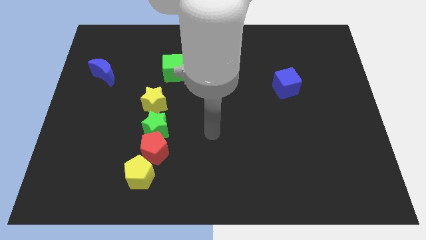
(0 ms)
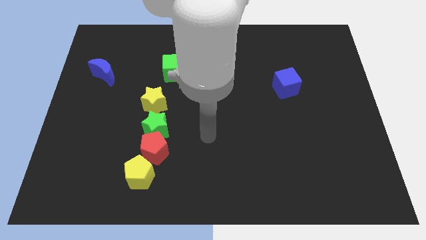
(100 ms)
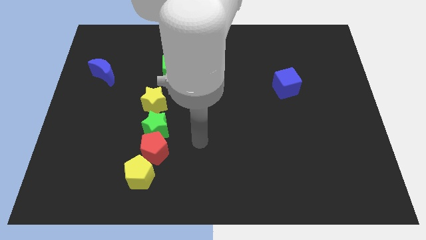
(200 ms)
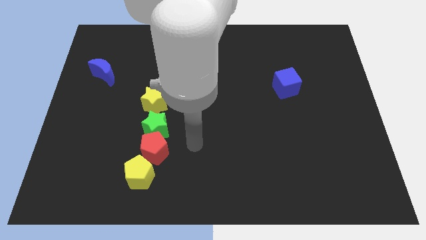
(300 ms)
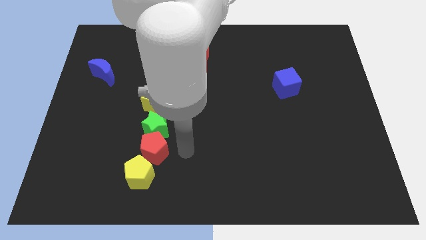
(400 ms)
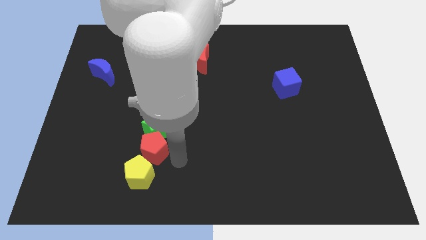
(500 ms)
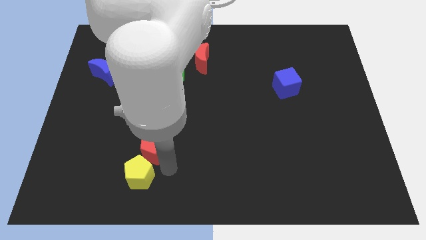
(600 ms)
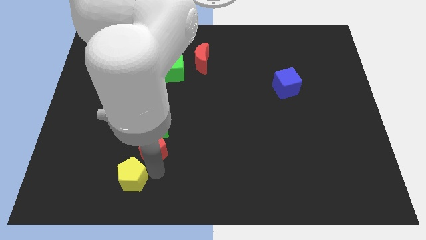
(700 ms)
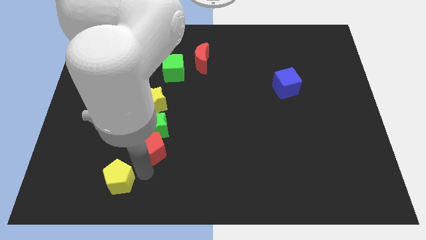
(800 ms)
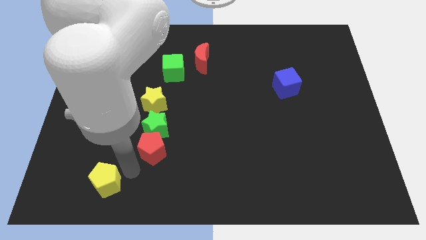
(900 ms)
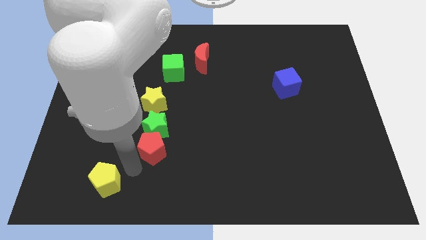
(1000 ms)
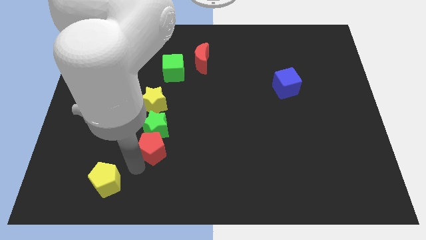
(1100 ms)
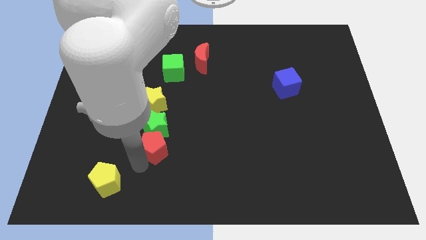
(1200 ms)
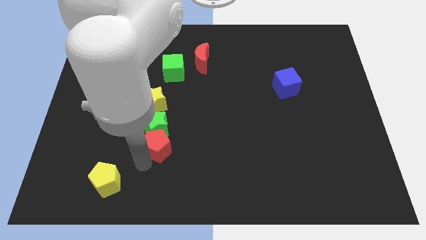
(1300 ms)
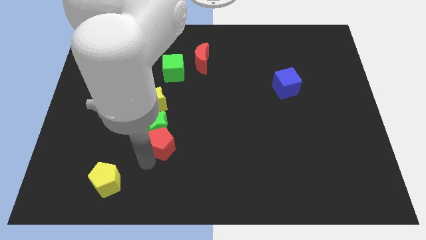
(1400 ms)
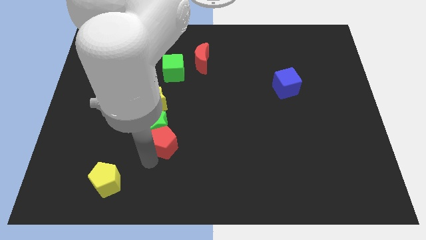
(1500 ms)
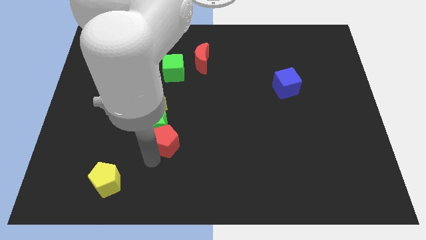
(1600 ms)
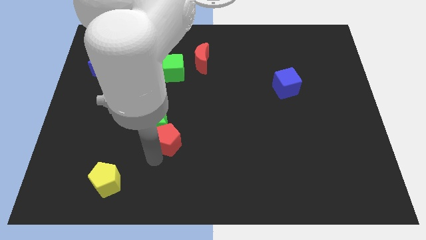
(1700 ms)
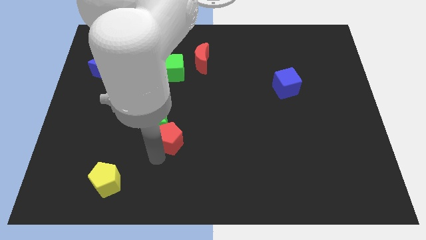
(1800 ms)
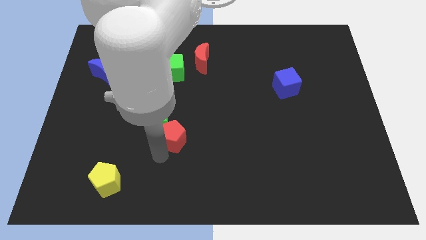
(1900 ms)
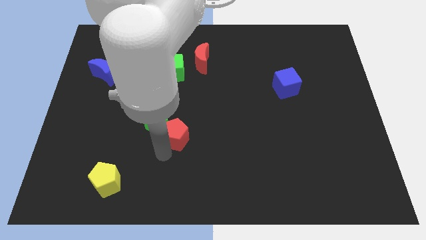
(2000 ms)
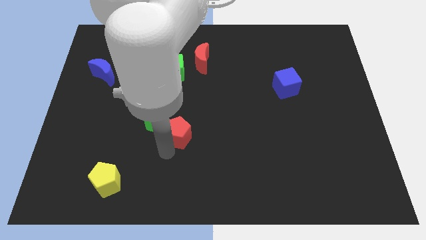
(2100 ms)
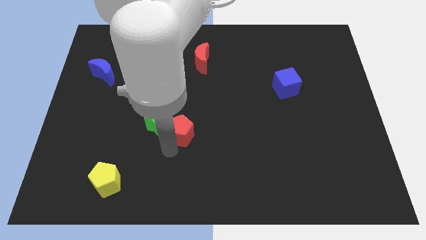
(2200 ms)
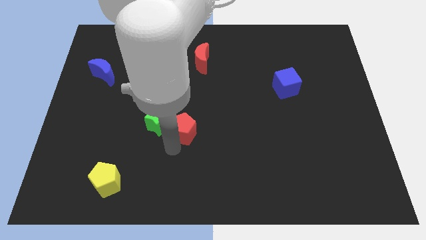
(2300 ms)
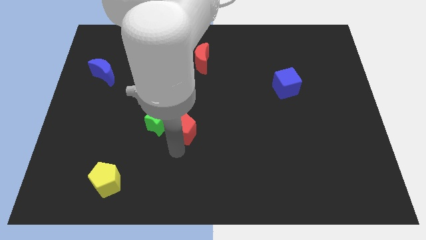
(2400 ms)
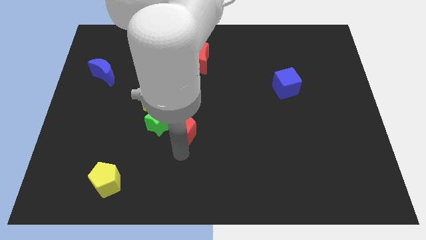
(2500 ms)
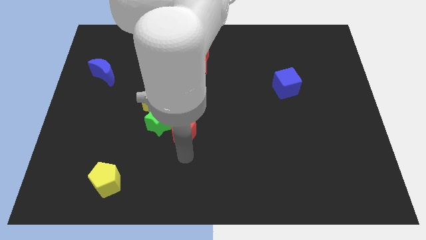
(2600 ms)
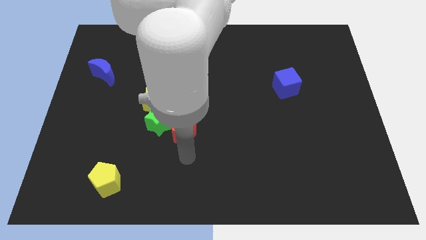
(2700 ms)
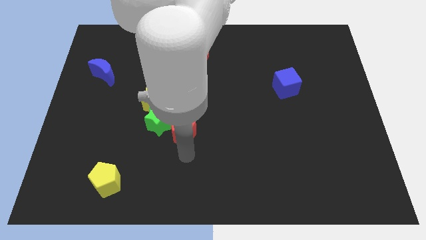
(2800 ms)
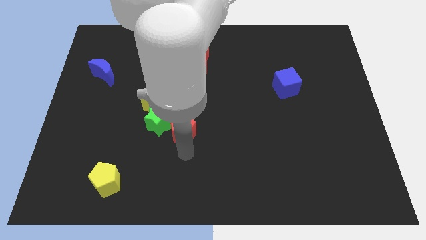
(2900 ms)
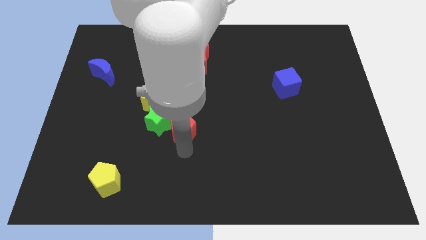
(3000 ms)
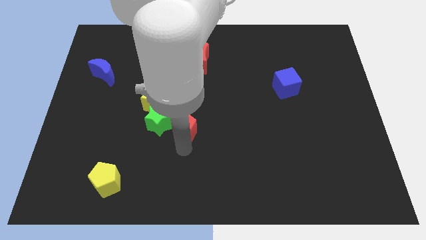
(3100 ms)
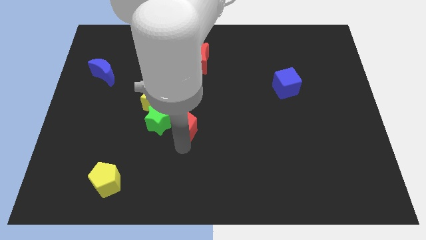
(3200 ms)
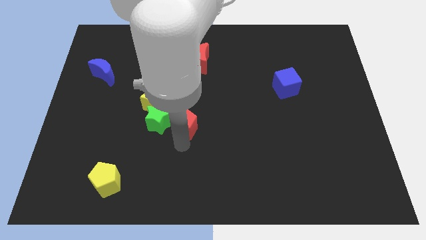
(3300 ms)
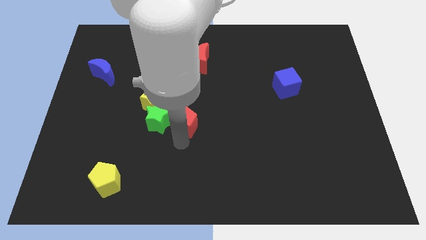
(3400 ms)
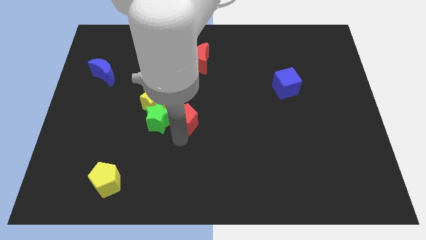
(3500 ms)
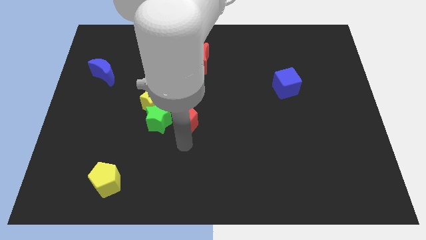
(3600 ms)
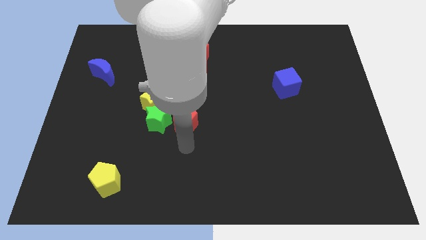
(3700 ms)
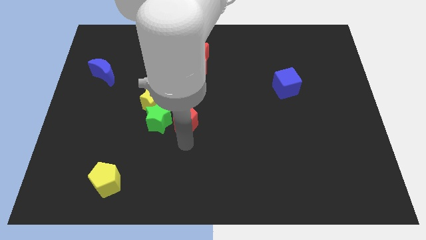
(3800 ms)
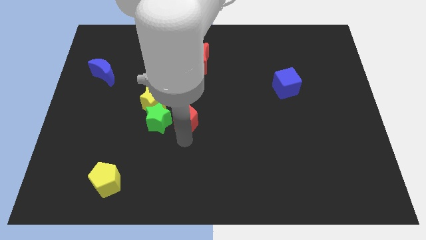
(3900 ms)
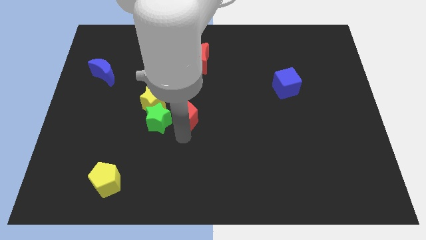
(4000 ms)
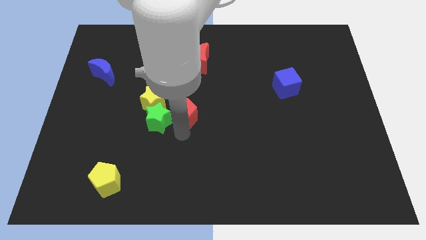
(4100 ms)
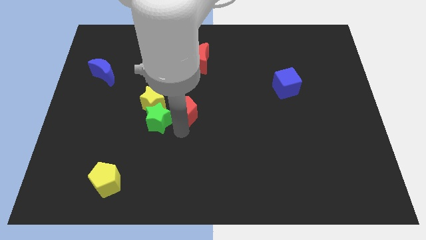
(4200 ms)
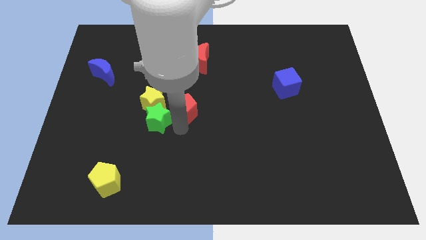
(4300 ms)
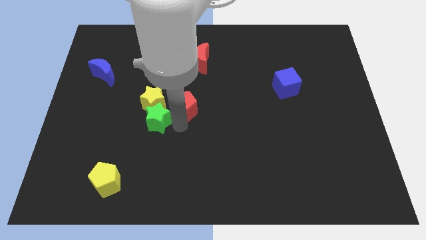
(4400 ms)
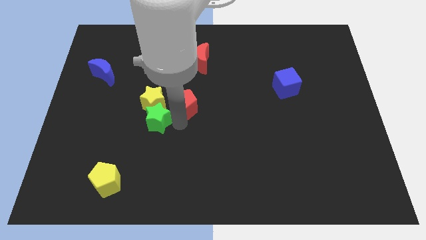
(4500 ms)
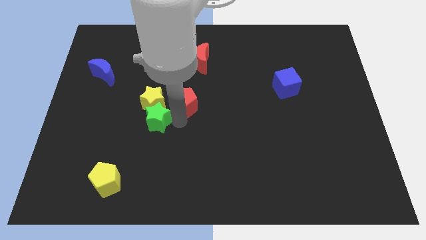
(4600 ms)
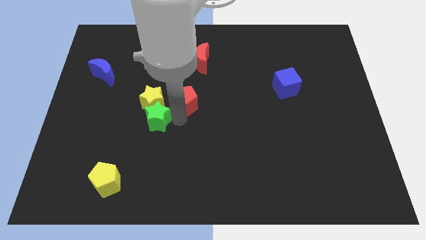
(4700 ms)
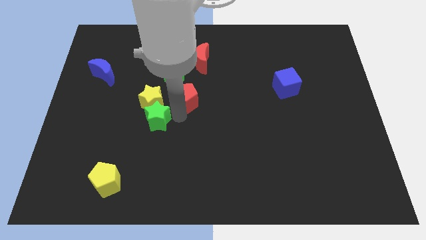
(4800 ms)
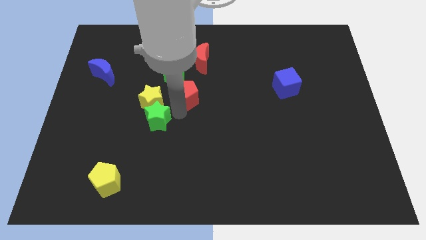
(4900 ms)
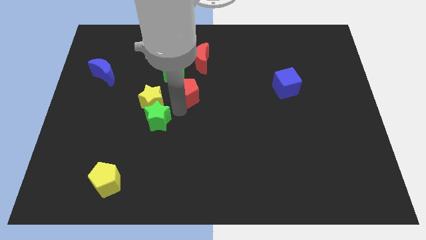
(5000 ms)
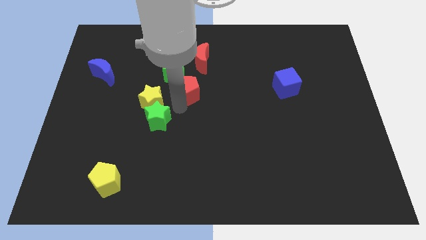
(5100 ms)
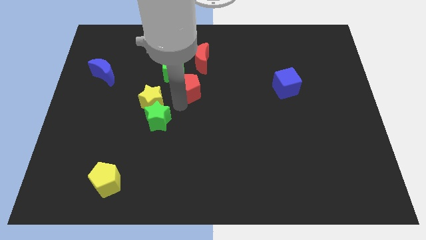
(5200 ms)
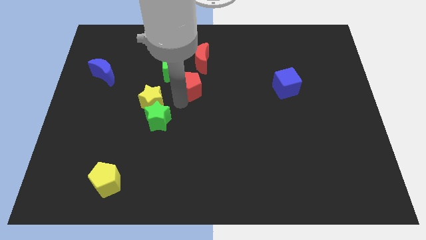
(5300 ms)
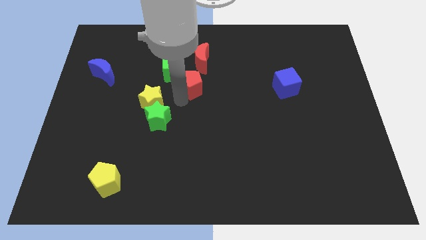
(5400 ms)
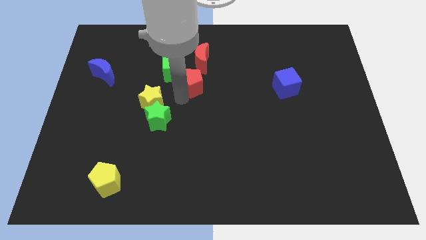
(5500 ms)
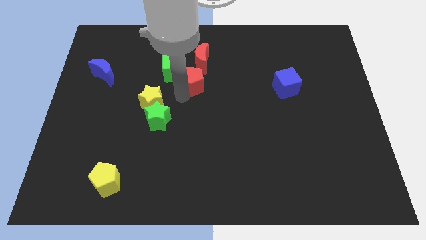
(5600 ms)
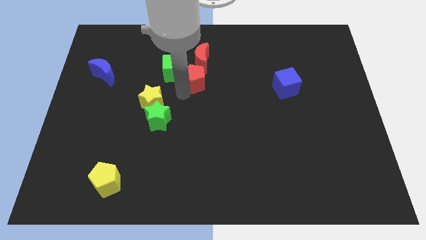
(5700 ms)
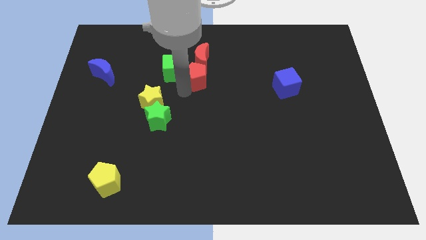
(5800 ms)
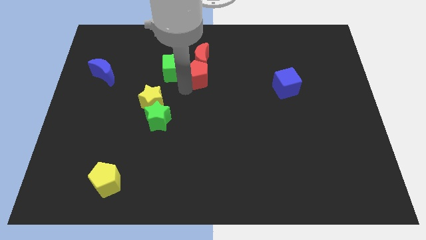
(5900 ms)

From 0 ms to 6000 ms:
move the red pentagon next to the red moon

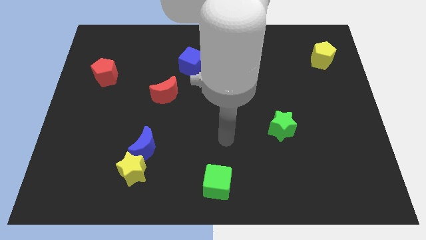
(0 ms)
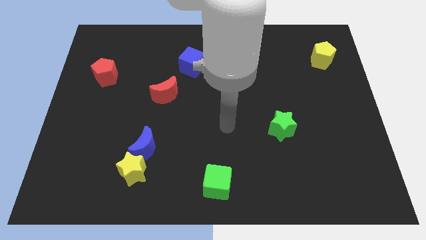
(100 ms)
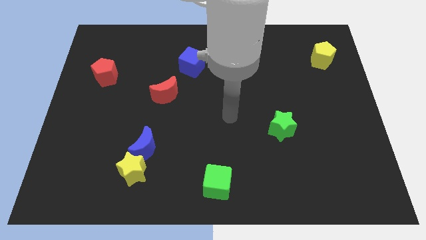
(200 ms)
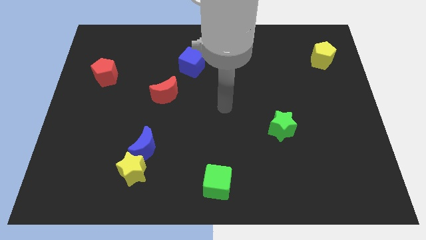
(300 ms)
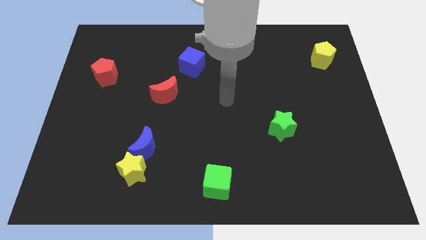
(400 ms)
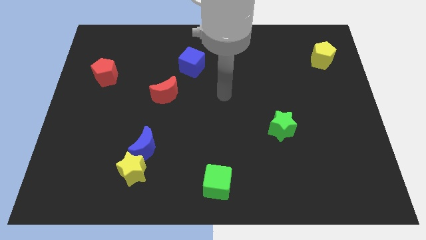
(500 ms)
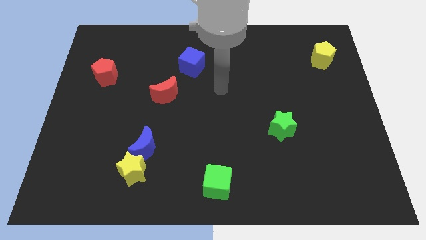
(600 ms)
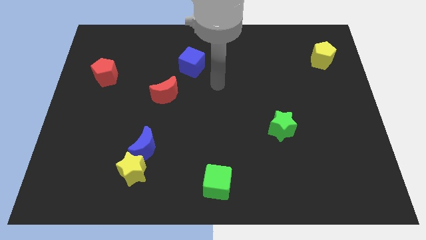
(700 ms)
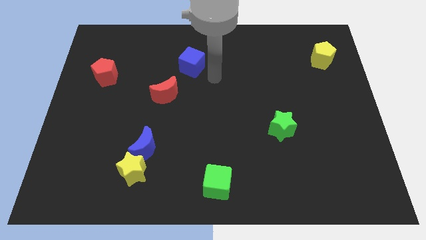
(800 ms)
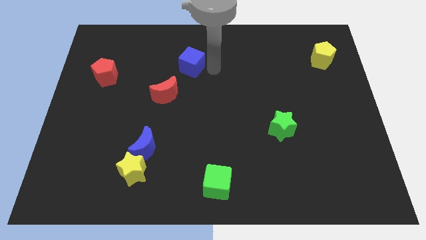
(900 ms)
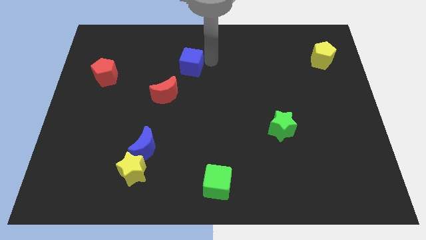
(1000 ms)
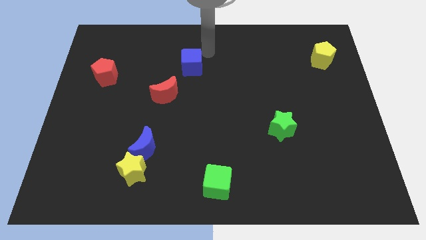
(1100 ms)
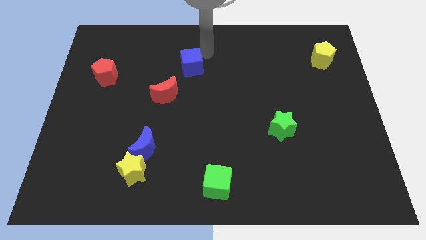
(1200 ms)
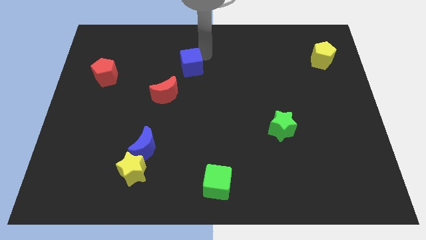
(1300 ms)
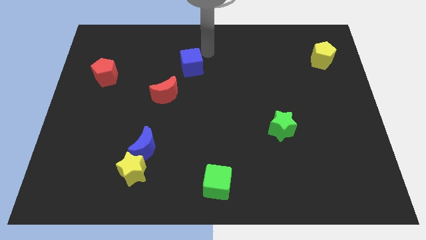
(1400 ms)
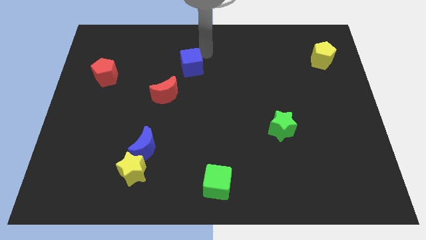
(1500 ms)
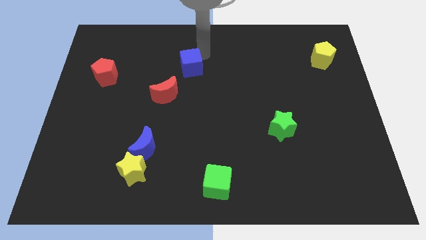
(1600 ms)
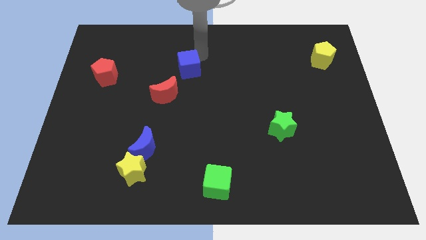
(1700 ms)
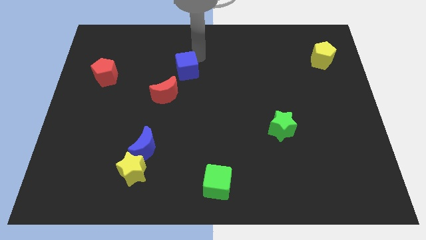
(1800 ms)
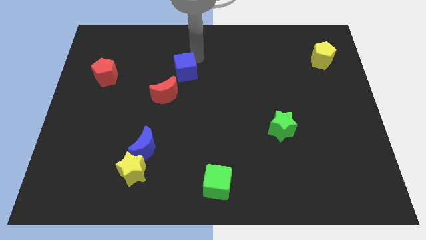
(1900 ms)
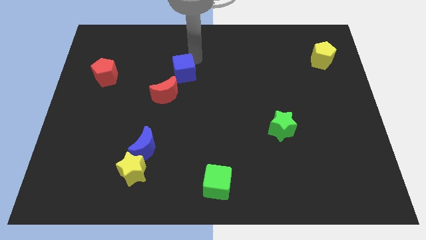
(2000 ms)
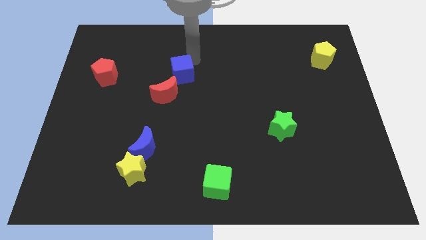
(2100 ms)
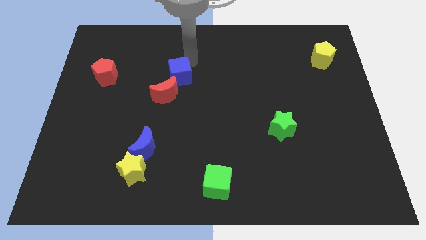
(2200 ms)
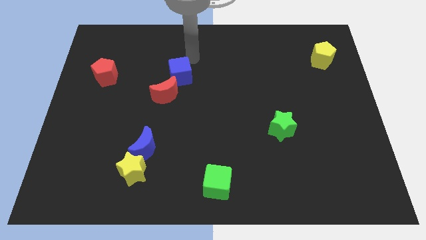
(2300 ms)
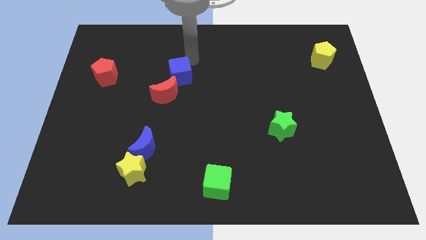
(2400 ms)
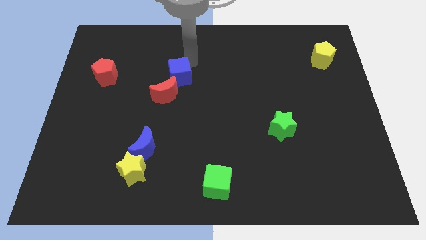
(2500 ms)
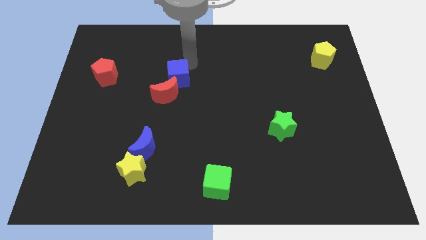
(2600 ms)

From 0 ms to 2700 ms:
put the blue cube next to the red moon
